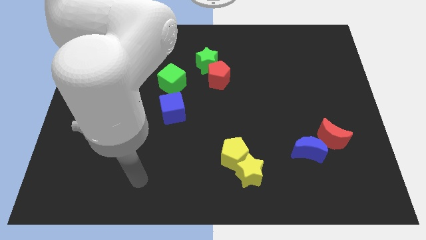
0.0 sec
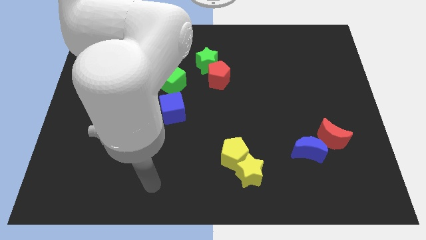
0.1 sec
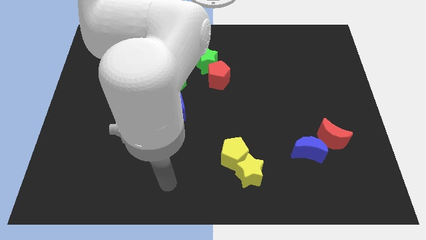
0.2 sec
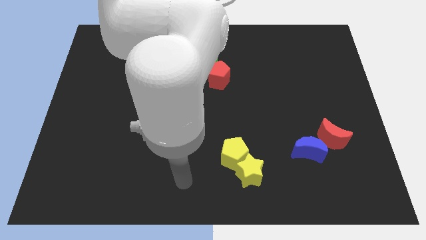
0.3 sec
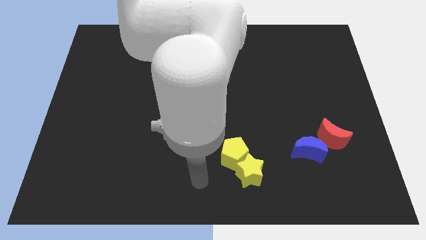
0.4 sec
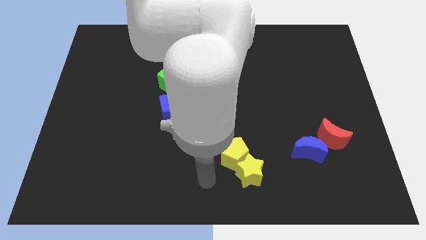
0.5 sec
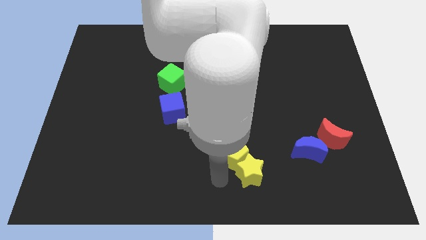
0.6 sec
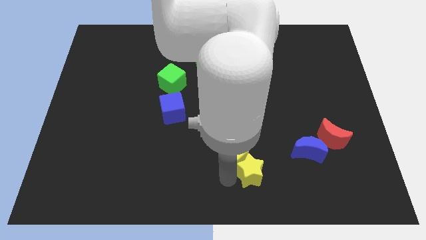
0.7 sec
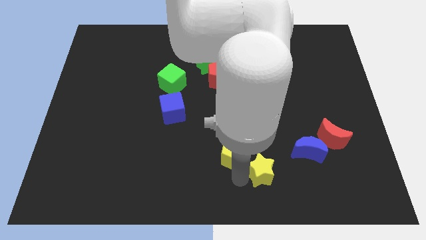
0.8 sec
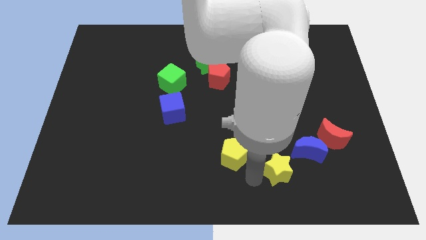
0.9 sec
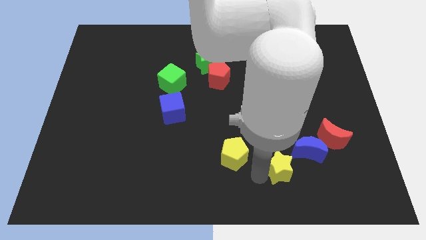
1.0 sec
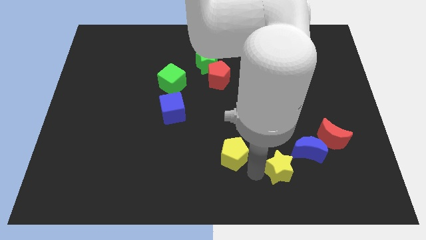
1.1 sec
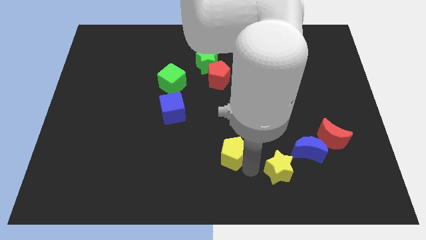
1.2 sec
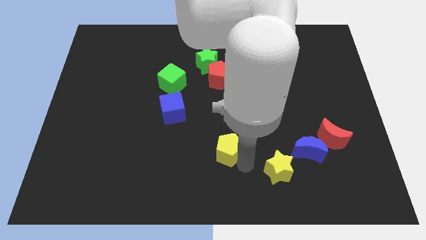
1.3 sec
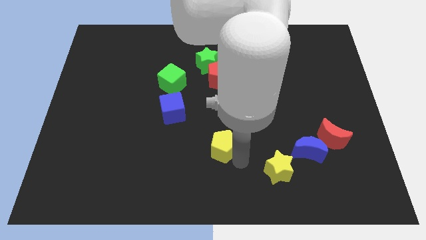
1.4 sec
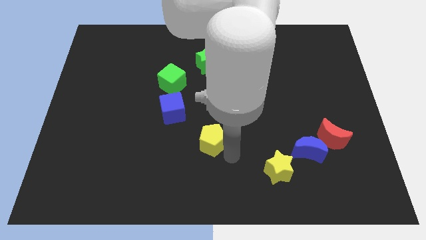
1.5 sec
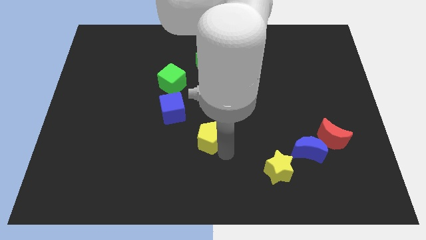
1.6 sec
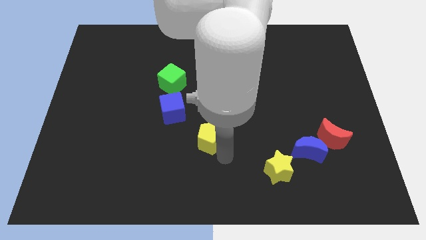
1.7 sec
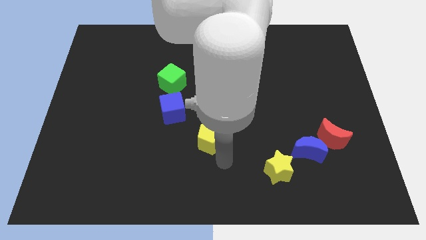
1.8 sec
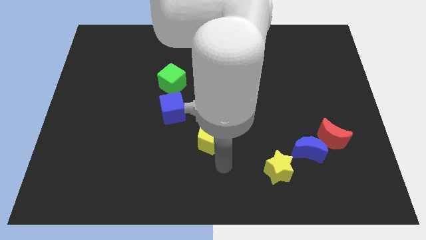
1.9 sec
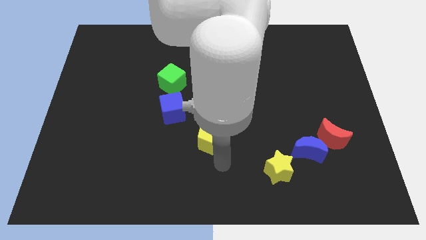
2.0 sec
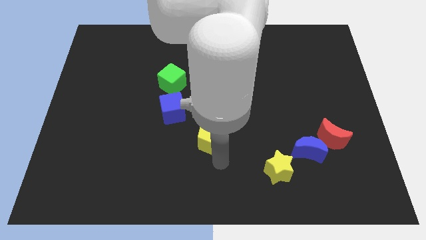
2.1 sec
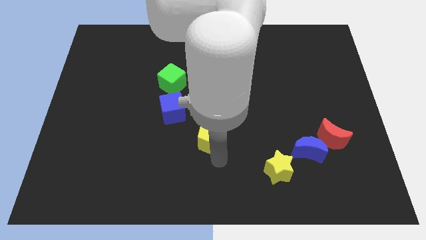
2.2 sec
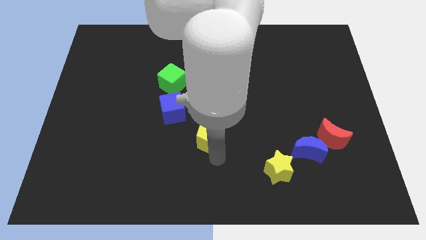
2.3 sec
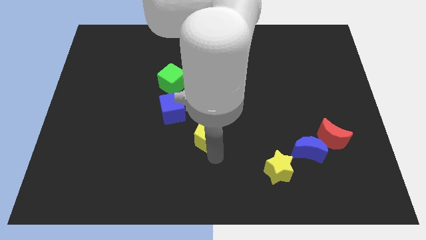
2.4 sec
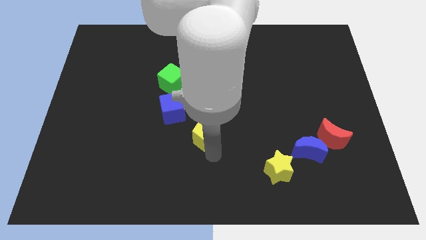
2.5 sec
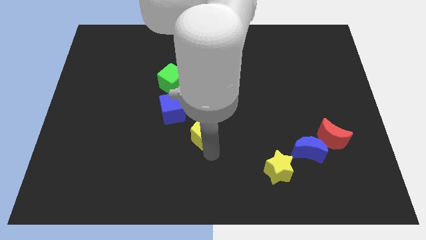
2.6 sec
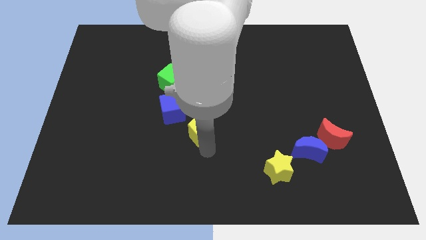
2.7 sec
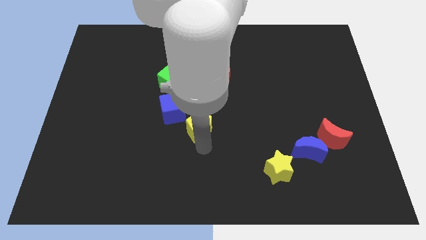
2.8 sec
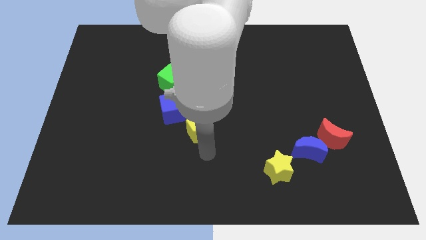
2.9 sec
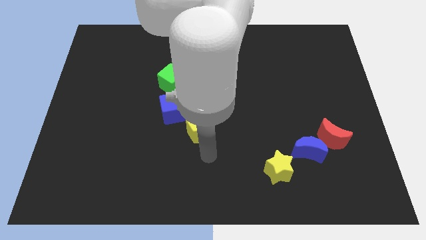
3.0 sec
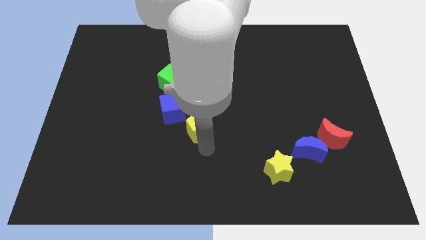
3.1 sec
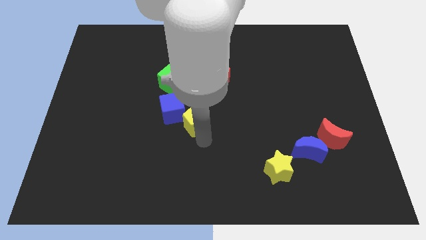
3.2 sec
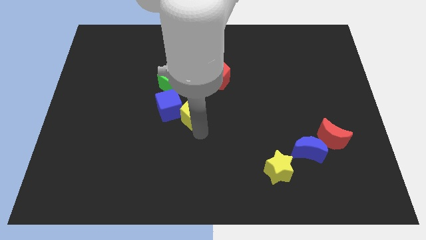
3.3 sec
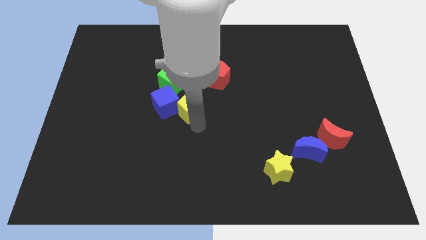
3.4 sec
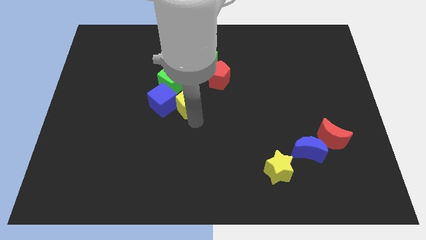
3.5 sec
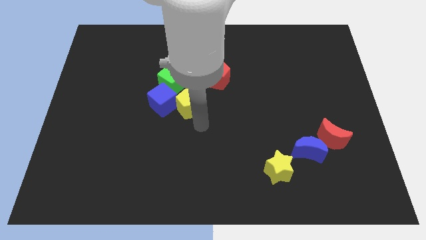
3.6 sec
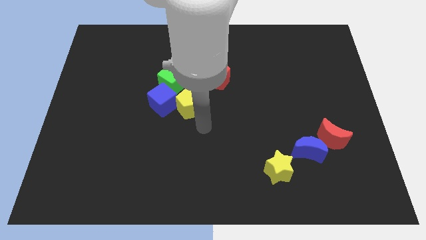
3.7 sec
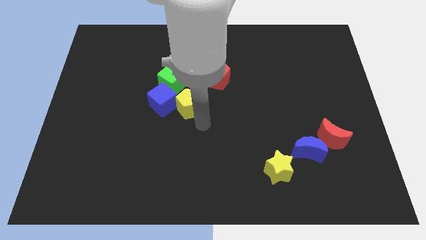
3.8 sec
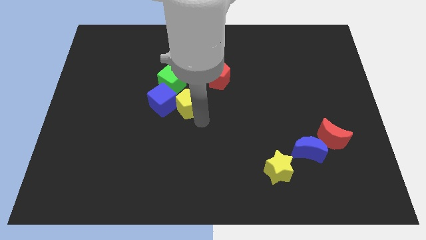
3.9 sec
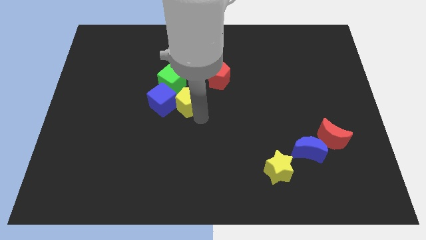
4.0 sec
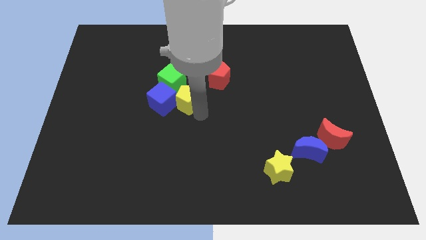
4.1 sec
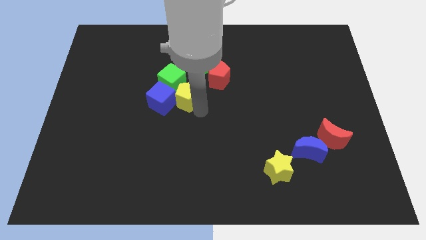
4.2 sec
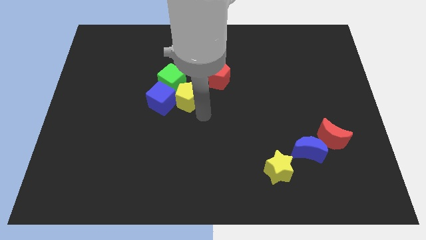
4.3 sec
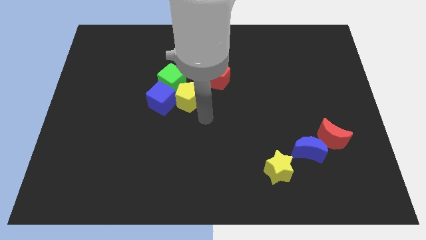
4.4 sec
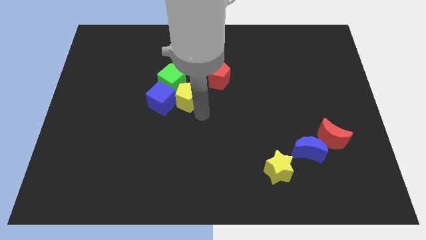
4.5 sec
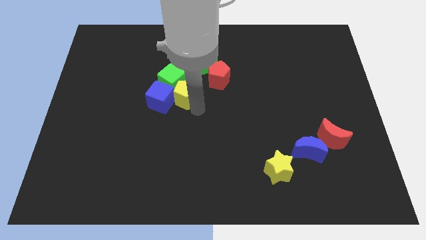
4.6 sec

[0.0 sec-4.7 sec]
move the yellow pentagon to the green cube

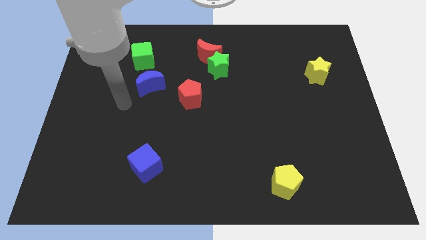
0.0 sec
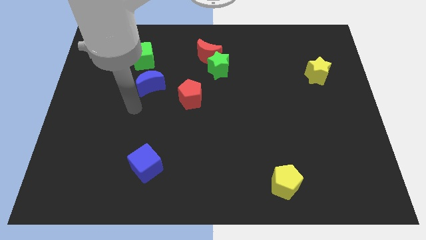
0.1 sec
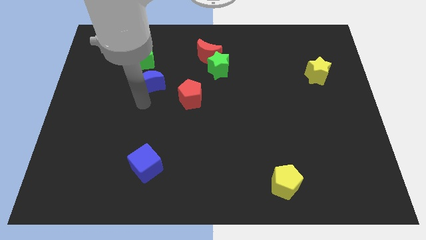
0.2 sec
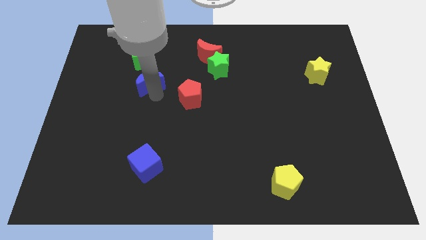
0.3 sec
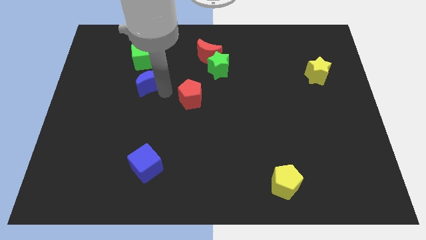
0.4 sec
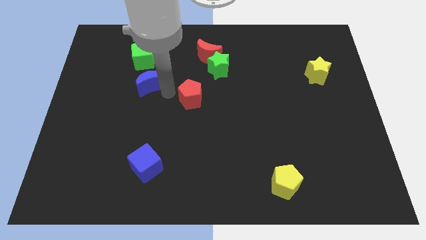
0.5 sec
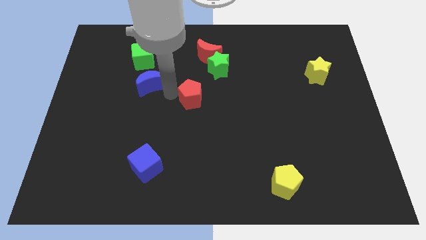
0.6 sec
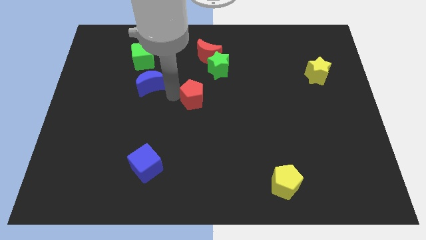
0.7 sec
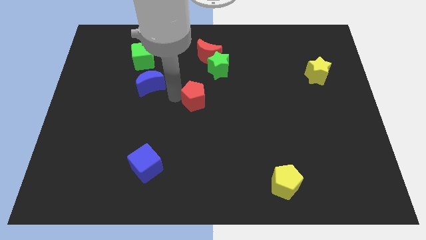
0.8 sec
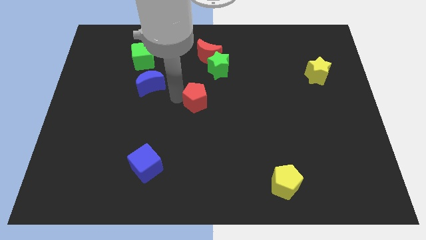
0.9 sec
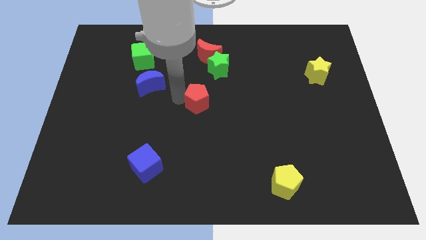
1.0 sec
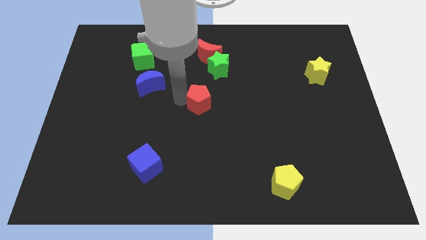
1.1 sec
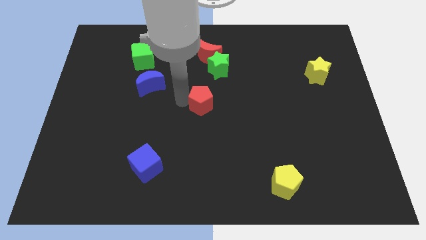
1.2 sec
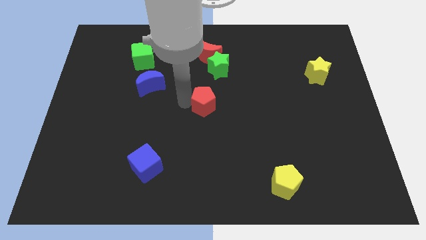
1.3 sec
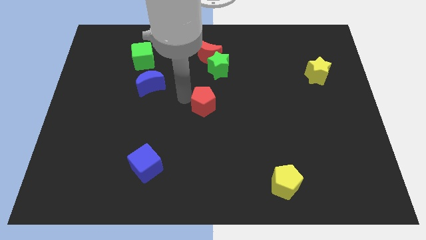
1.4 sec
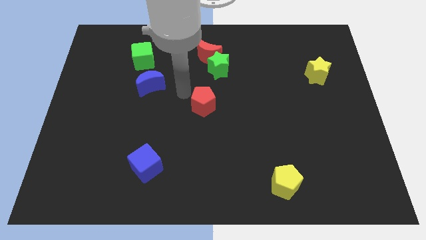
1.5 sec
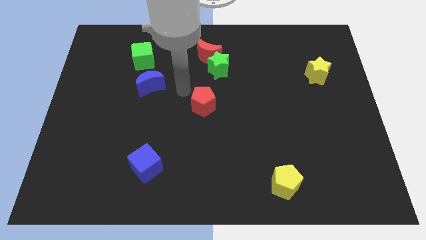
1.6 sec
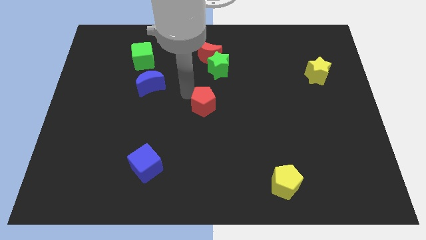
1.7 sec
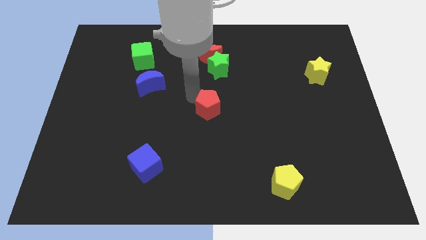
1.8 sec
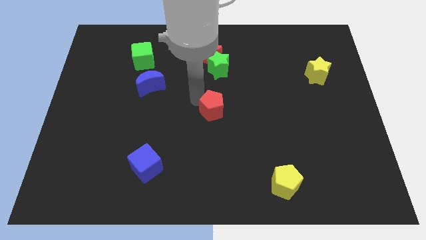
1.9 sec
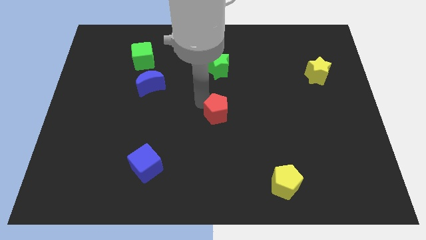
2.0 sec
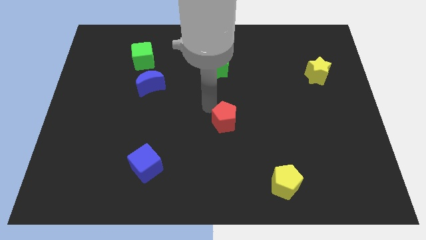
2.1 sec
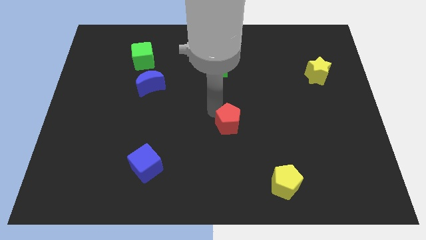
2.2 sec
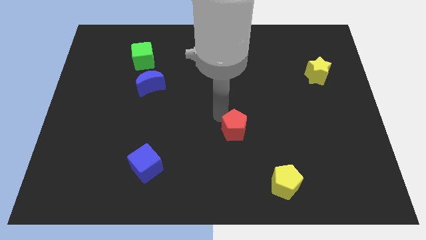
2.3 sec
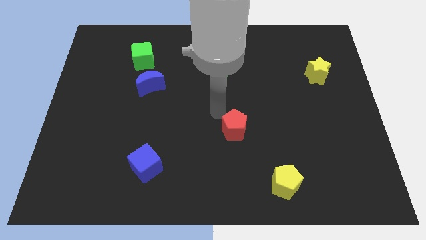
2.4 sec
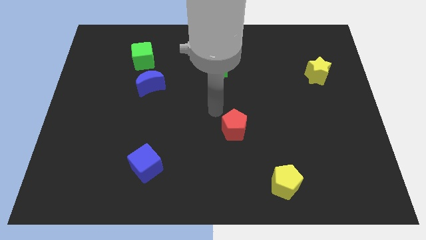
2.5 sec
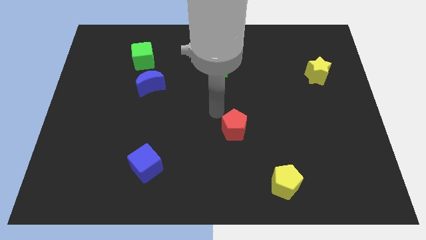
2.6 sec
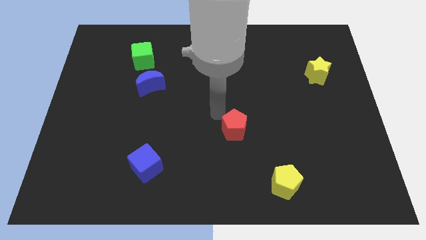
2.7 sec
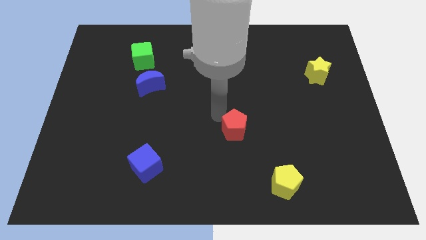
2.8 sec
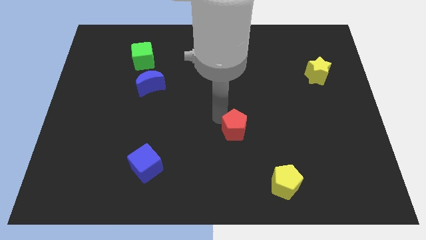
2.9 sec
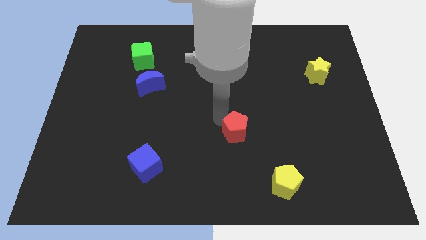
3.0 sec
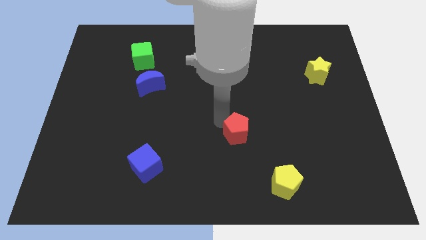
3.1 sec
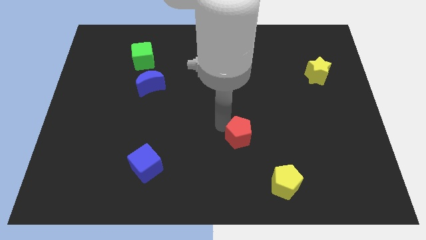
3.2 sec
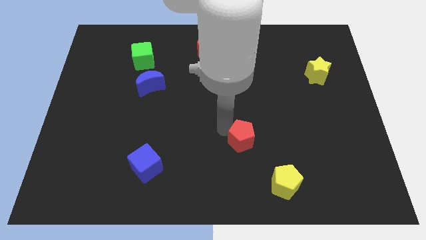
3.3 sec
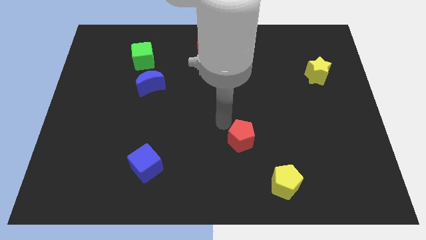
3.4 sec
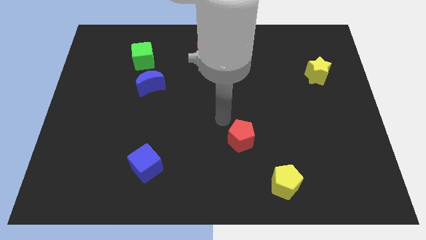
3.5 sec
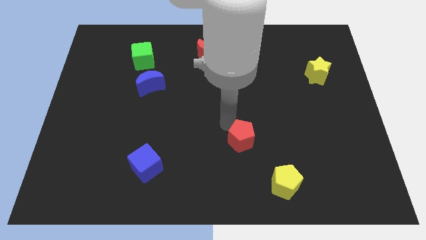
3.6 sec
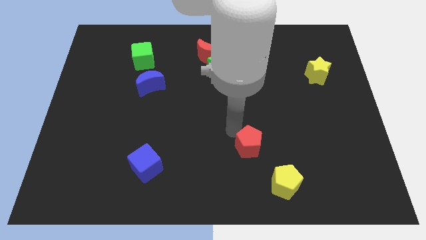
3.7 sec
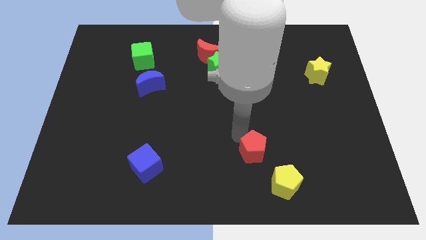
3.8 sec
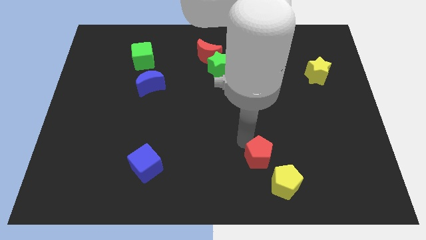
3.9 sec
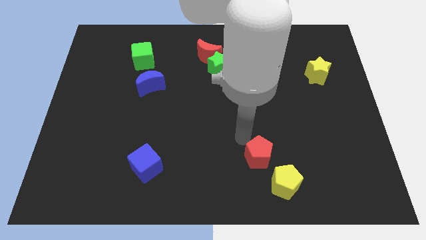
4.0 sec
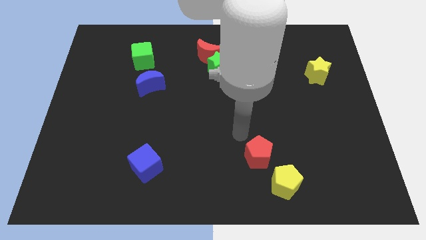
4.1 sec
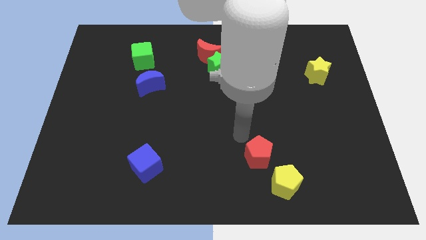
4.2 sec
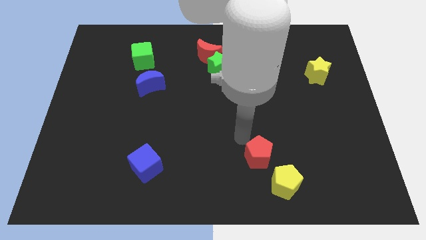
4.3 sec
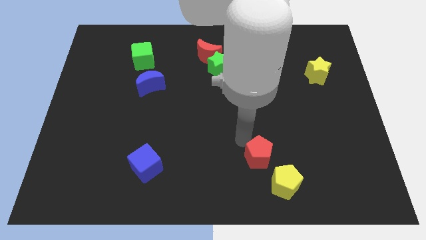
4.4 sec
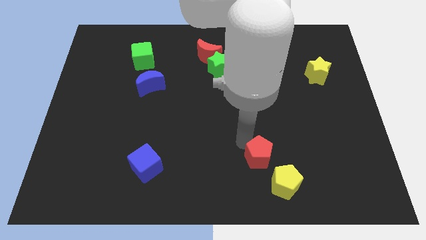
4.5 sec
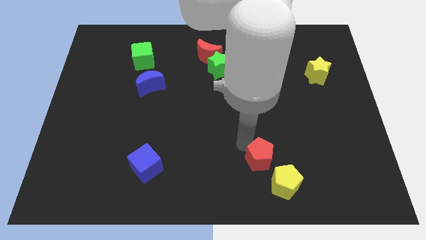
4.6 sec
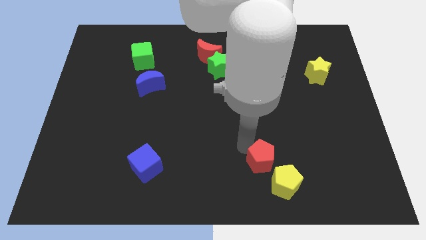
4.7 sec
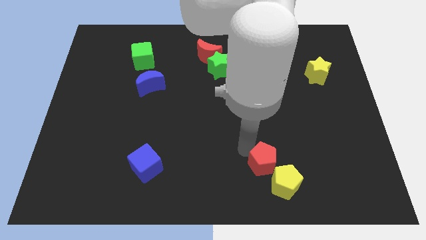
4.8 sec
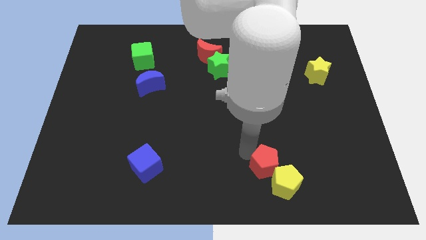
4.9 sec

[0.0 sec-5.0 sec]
put the red pentagon towards the yellow pentagon
